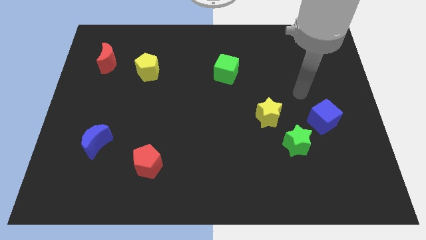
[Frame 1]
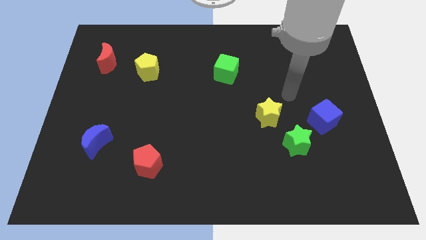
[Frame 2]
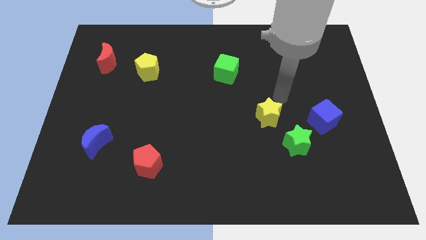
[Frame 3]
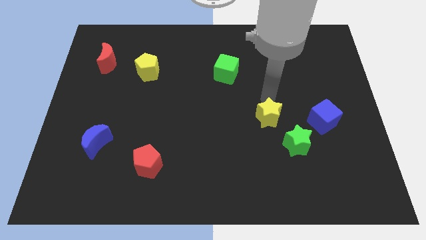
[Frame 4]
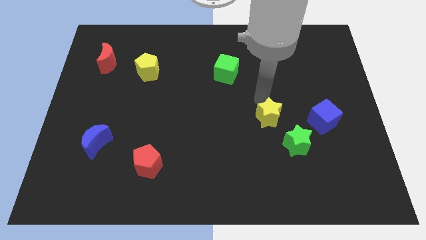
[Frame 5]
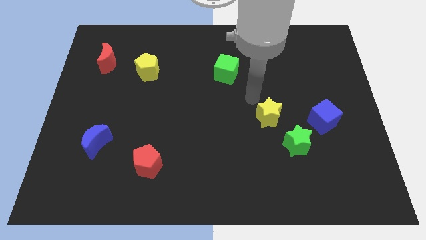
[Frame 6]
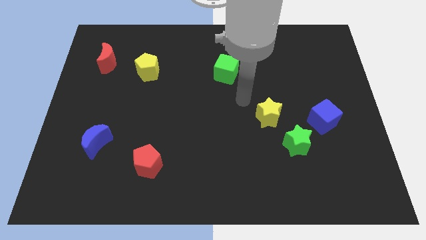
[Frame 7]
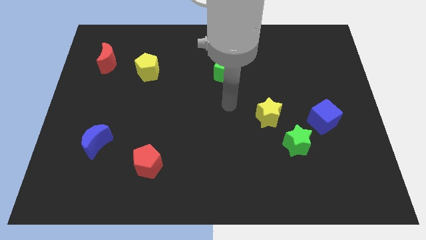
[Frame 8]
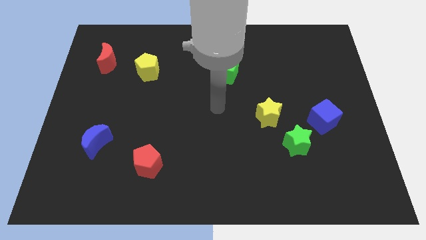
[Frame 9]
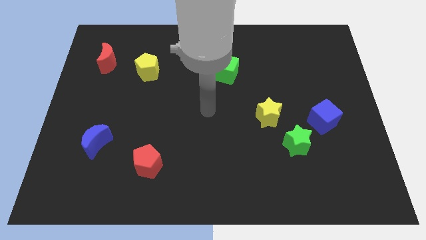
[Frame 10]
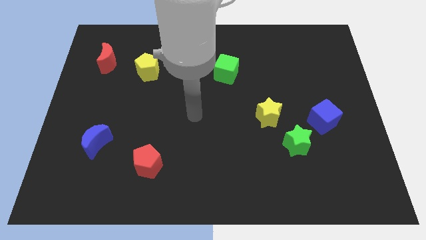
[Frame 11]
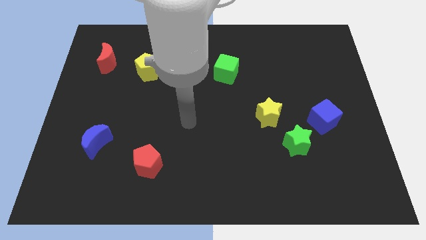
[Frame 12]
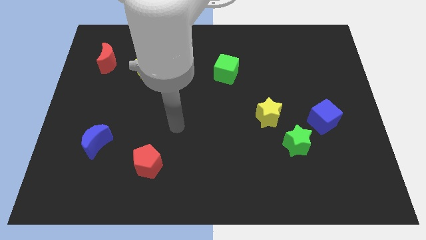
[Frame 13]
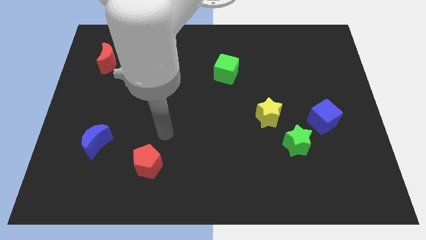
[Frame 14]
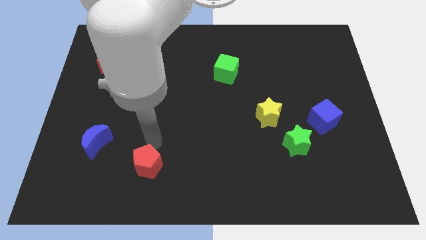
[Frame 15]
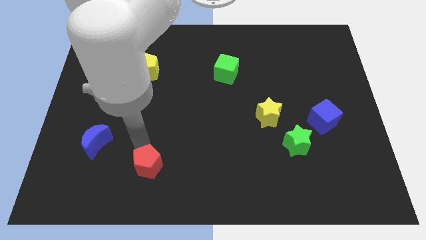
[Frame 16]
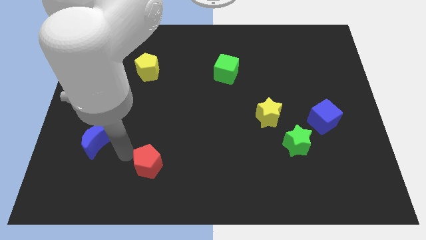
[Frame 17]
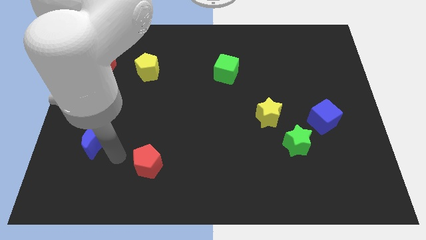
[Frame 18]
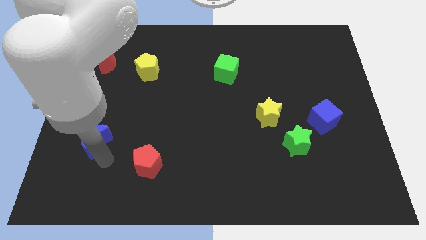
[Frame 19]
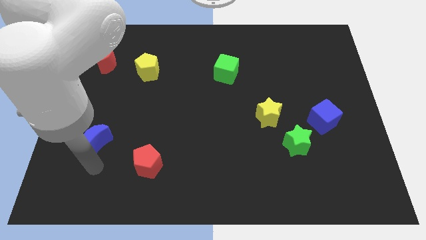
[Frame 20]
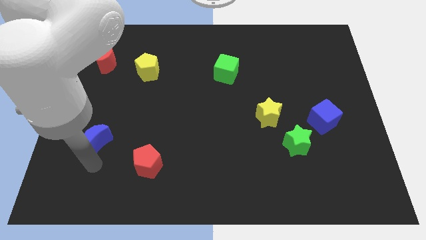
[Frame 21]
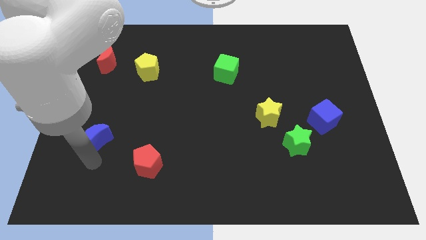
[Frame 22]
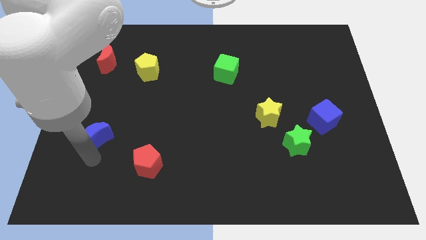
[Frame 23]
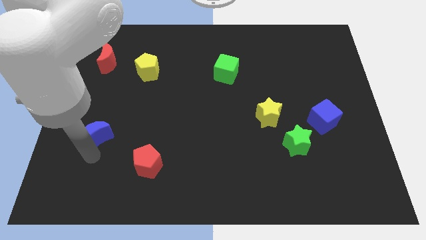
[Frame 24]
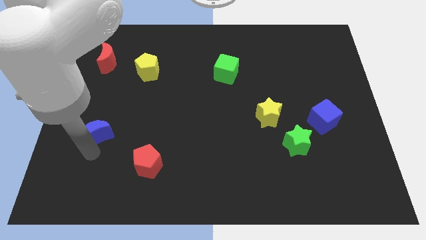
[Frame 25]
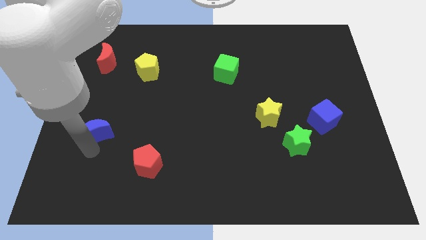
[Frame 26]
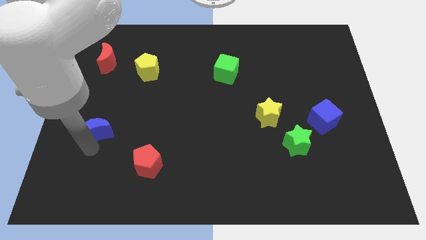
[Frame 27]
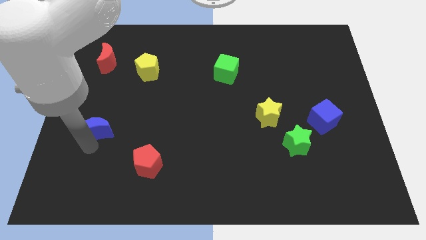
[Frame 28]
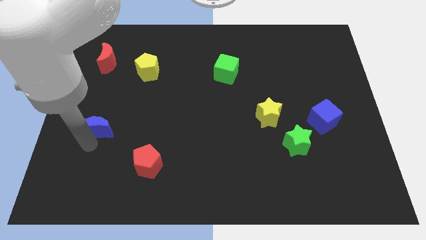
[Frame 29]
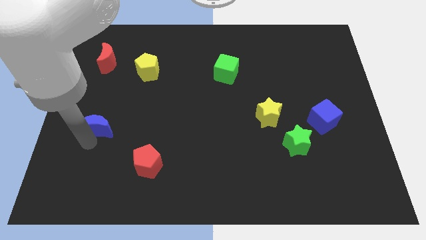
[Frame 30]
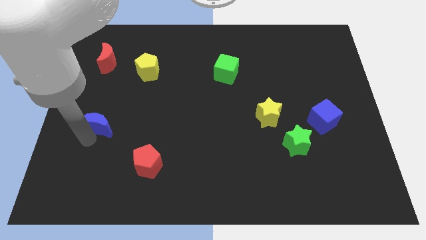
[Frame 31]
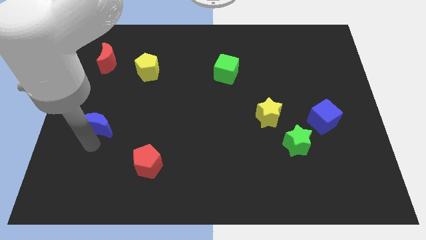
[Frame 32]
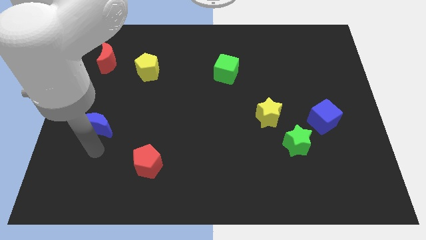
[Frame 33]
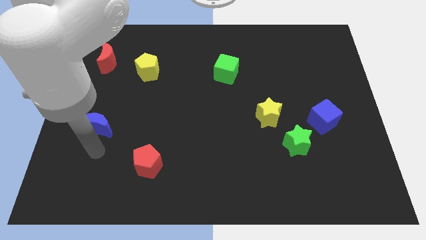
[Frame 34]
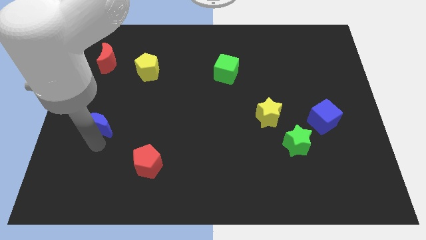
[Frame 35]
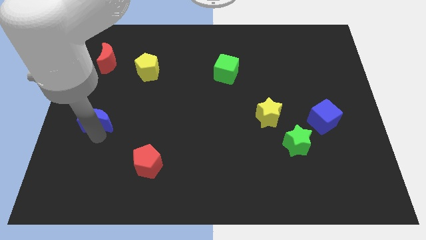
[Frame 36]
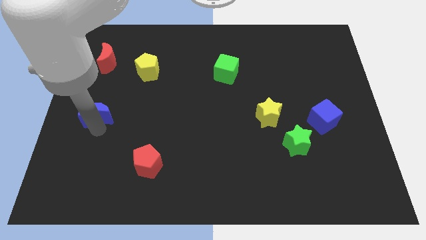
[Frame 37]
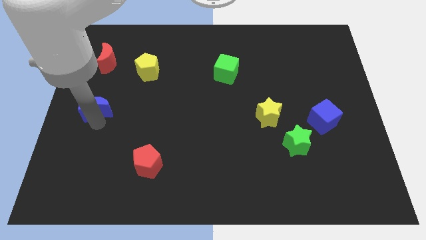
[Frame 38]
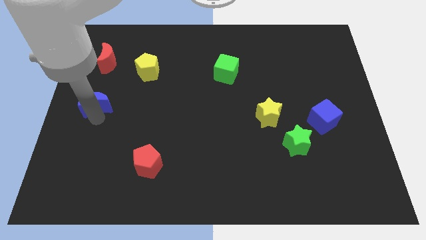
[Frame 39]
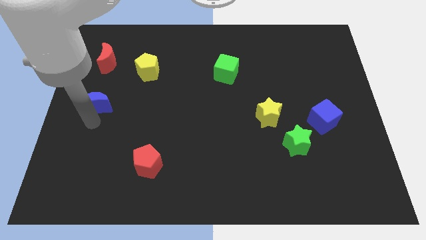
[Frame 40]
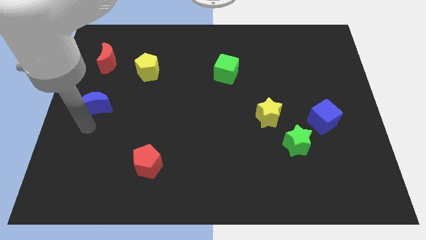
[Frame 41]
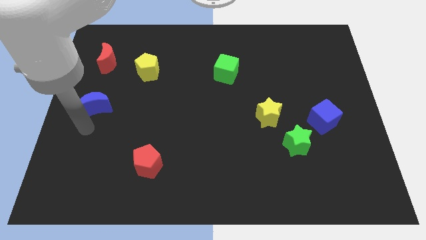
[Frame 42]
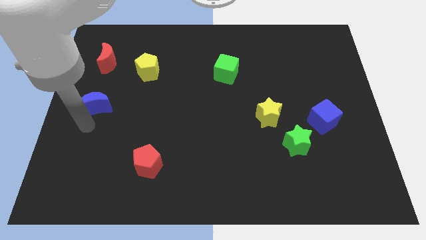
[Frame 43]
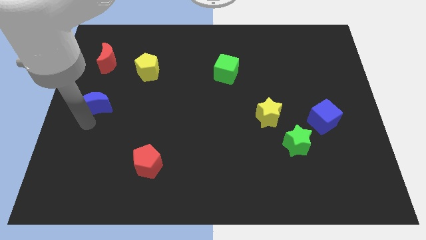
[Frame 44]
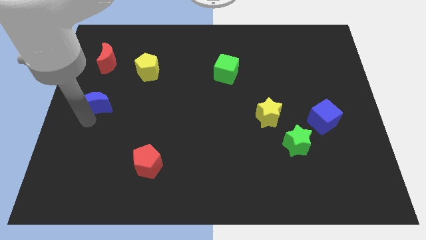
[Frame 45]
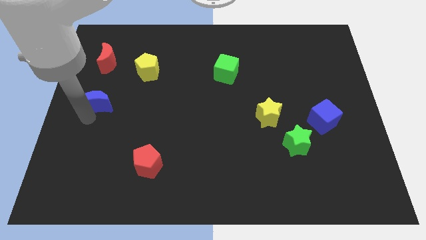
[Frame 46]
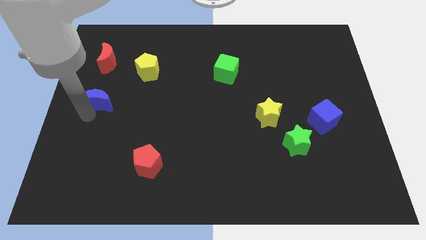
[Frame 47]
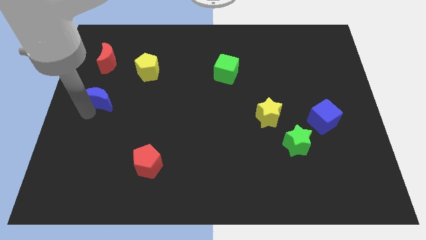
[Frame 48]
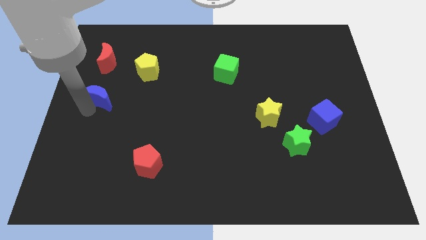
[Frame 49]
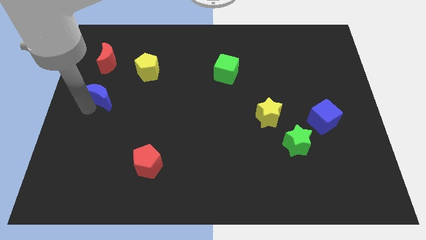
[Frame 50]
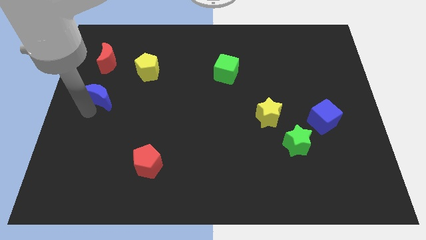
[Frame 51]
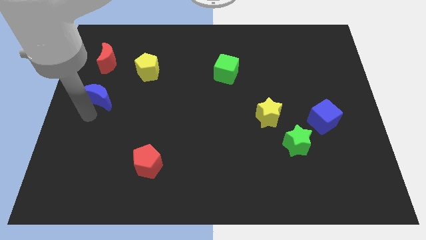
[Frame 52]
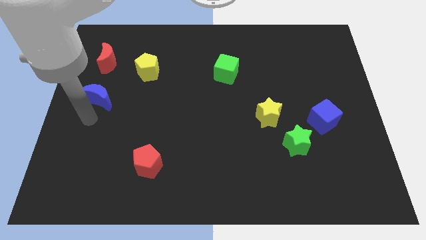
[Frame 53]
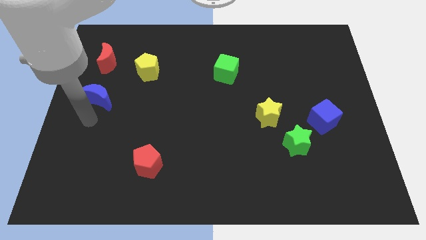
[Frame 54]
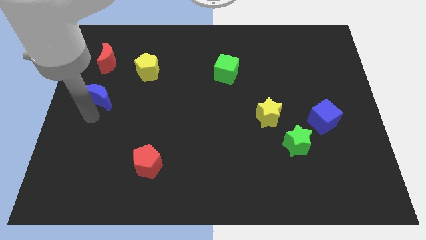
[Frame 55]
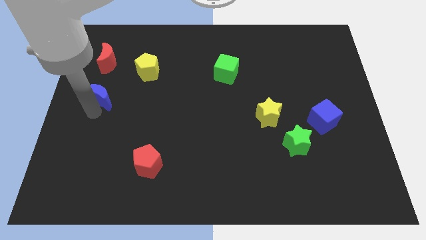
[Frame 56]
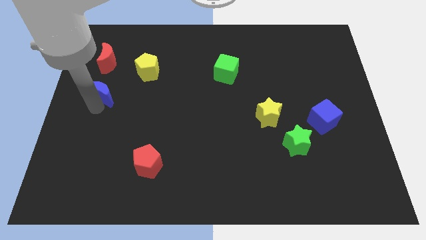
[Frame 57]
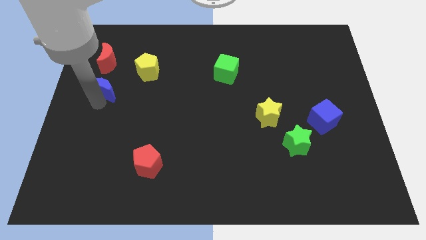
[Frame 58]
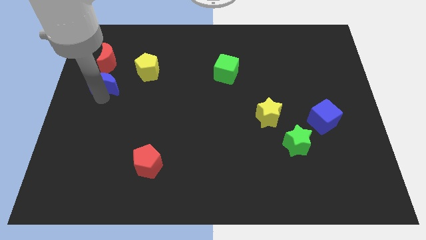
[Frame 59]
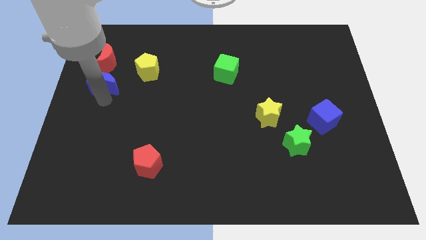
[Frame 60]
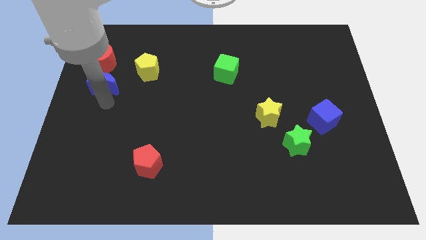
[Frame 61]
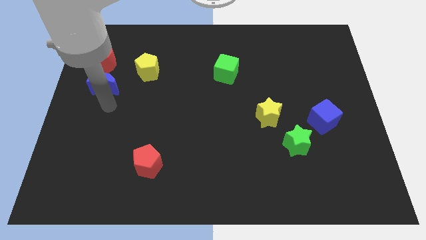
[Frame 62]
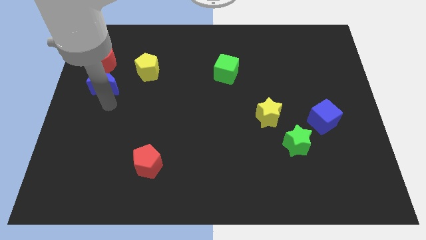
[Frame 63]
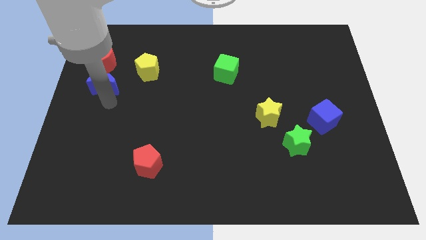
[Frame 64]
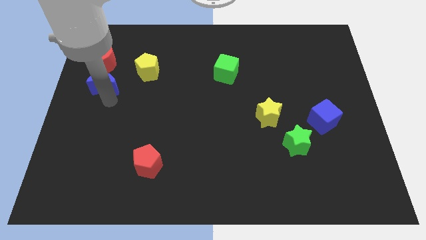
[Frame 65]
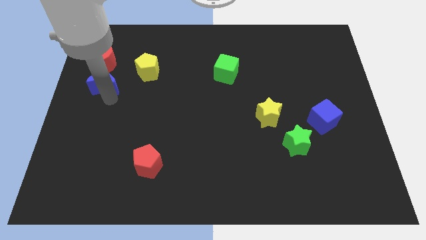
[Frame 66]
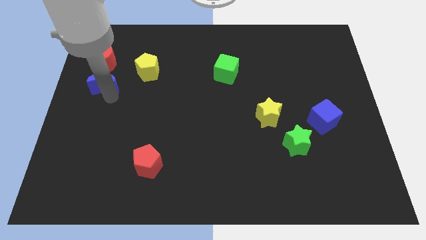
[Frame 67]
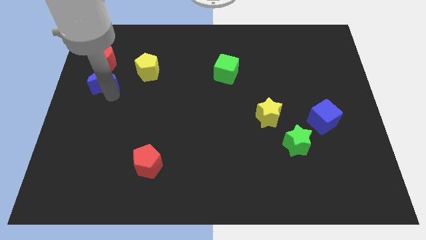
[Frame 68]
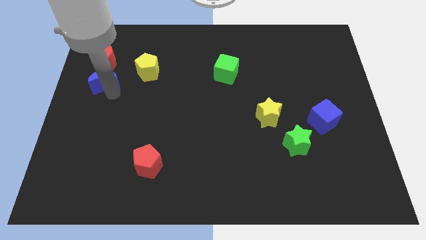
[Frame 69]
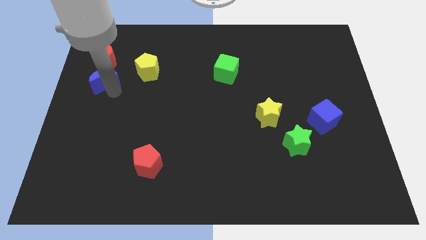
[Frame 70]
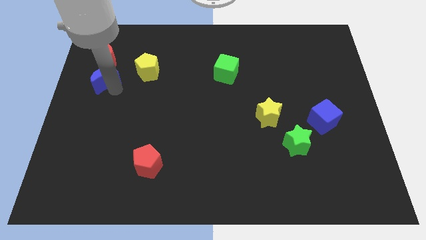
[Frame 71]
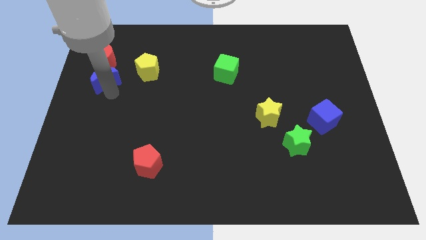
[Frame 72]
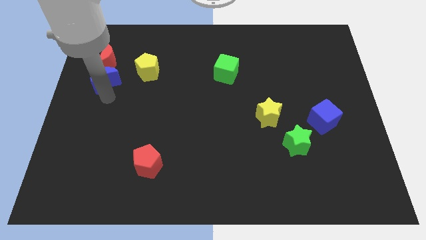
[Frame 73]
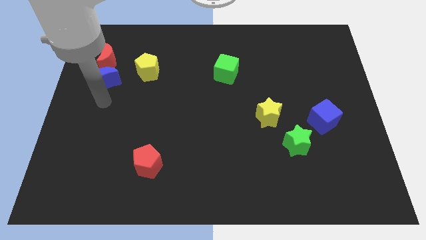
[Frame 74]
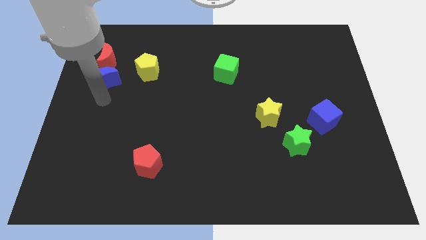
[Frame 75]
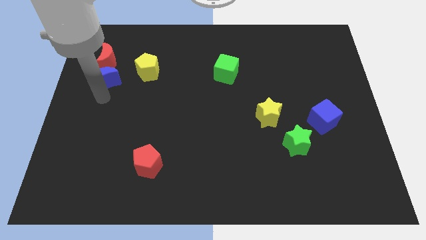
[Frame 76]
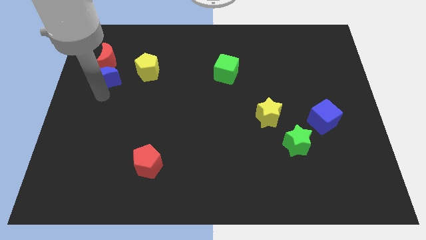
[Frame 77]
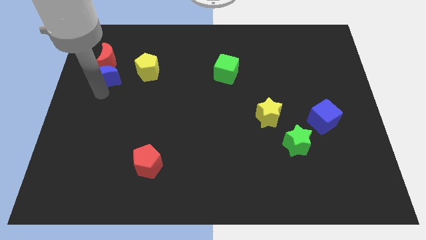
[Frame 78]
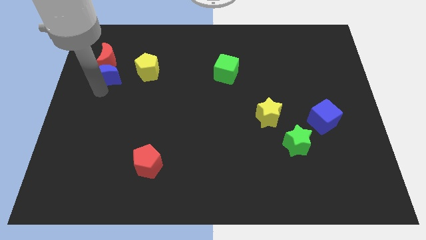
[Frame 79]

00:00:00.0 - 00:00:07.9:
push the blue moon towards the red moon
